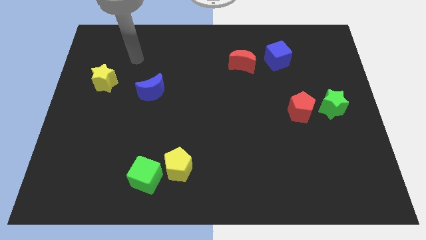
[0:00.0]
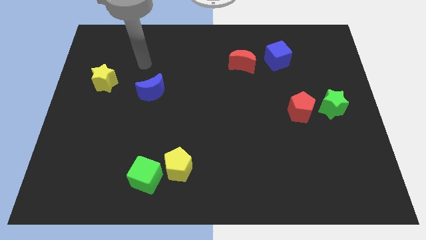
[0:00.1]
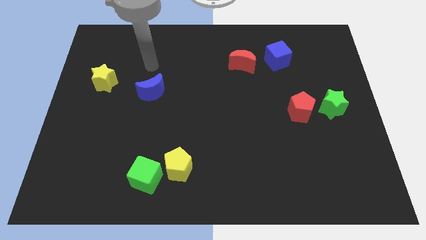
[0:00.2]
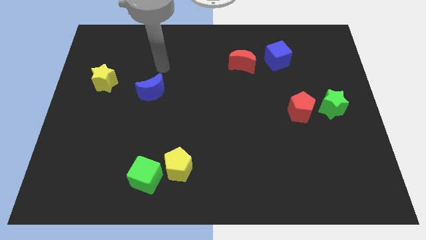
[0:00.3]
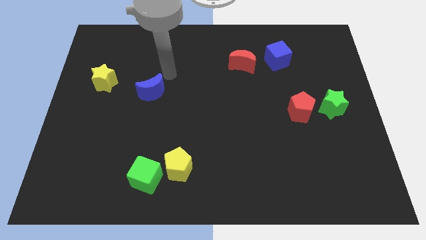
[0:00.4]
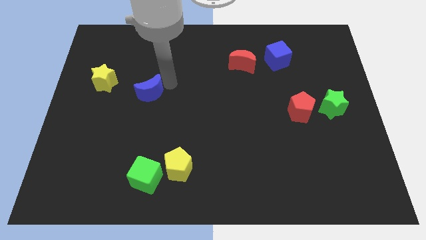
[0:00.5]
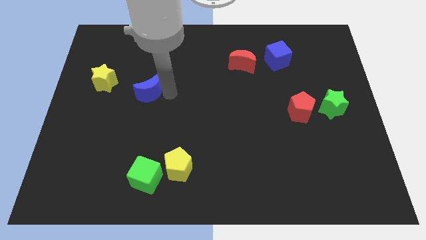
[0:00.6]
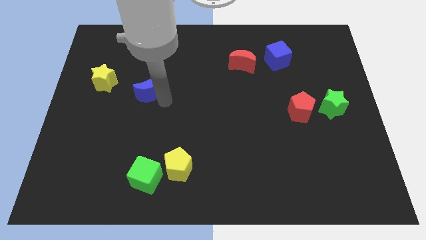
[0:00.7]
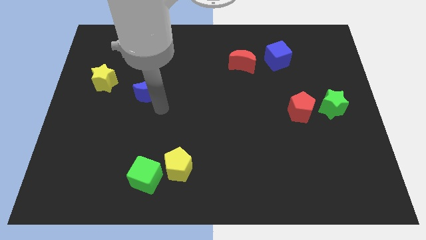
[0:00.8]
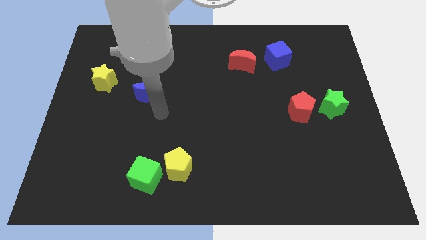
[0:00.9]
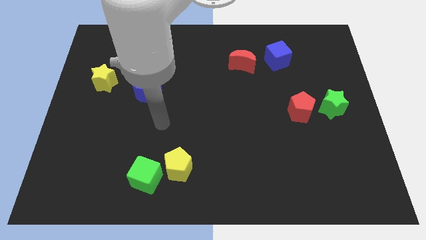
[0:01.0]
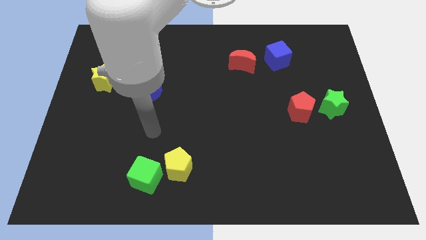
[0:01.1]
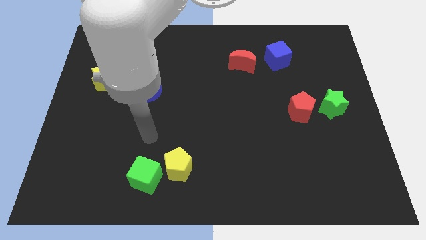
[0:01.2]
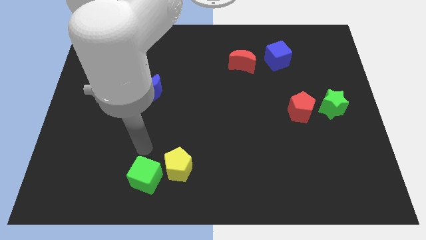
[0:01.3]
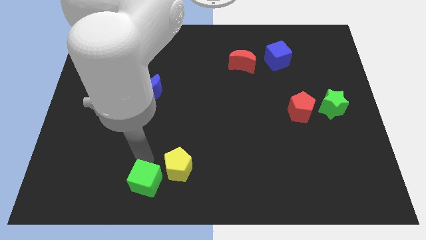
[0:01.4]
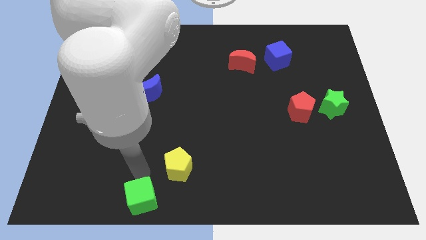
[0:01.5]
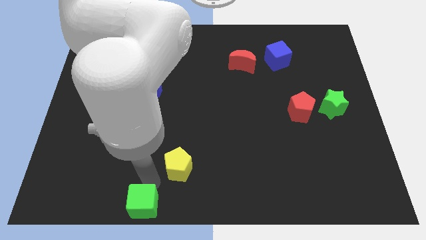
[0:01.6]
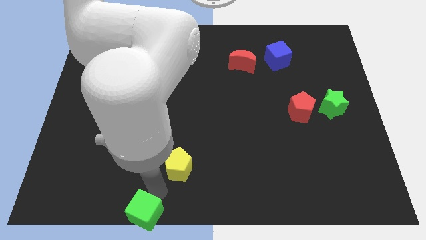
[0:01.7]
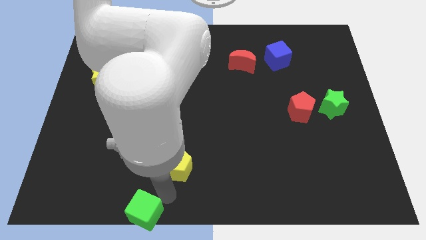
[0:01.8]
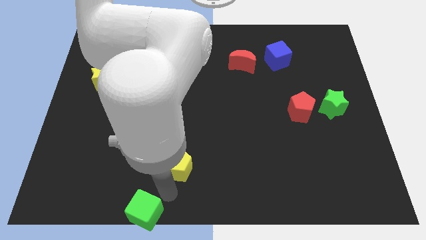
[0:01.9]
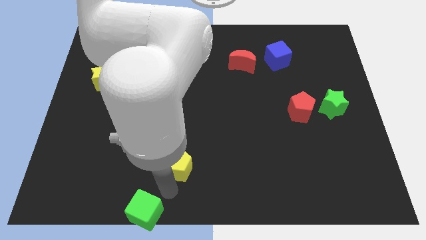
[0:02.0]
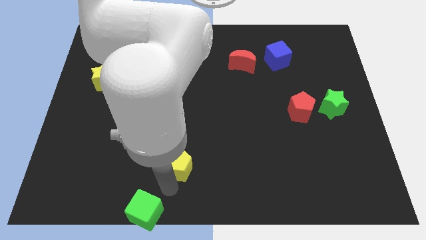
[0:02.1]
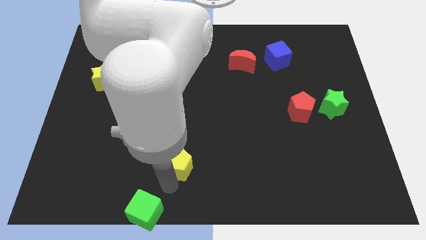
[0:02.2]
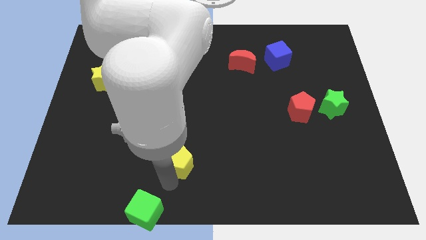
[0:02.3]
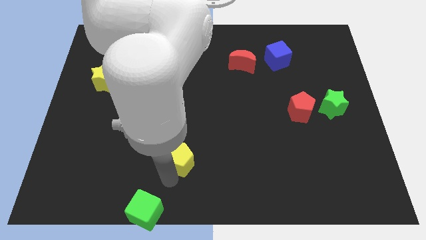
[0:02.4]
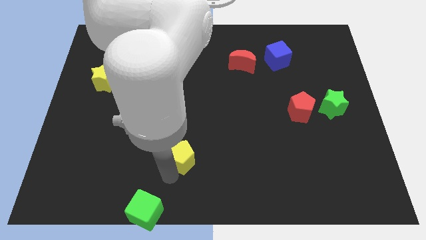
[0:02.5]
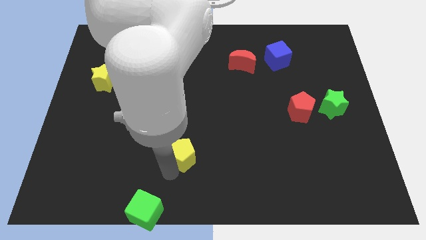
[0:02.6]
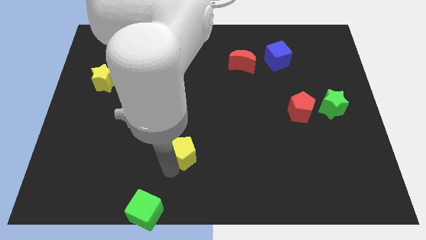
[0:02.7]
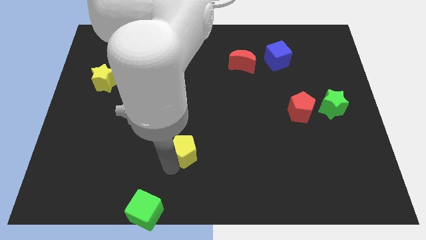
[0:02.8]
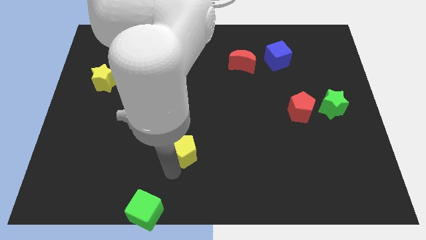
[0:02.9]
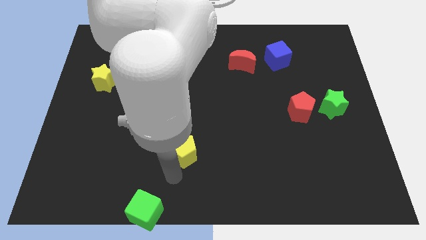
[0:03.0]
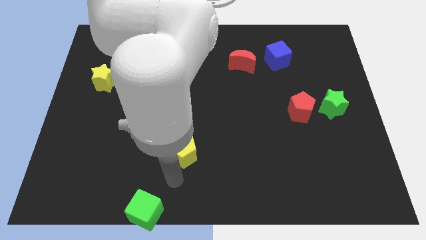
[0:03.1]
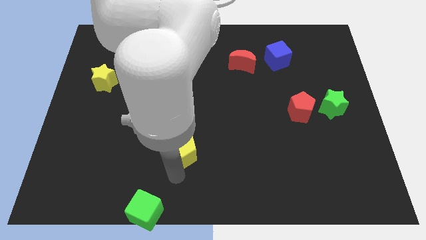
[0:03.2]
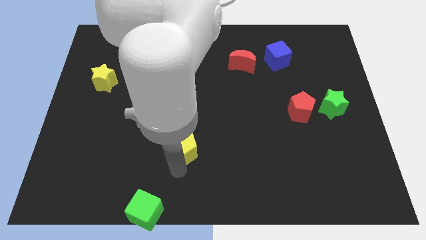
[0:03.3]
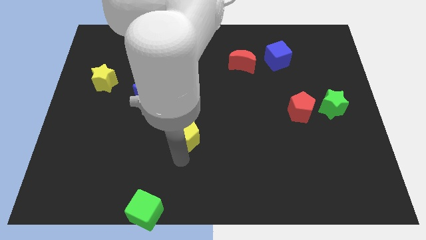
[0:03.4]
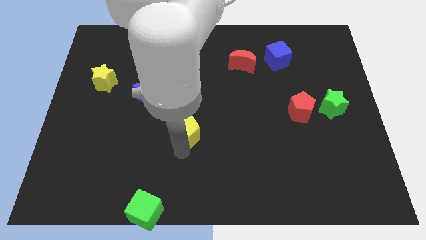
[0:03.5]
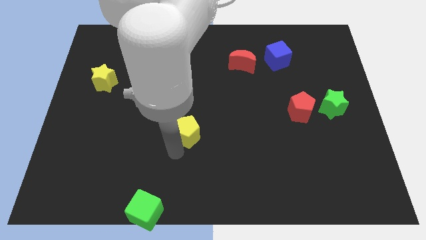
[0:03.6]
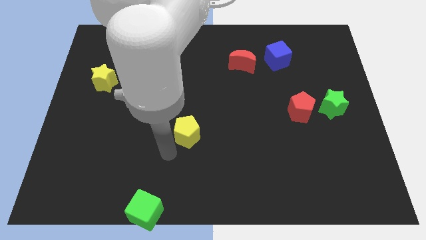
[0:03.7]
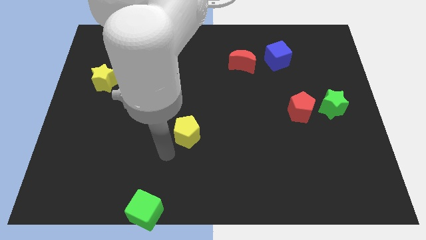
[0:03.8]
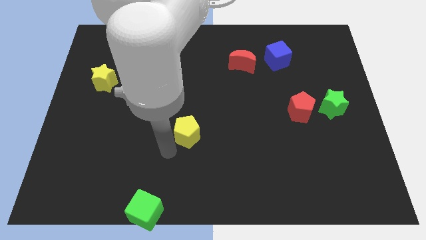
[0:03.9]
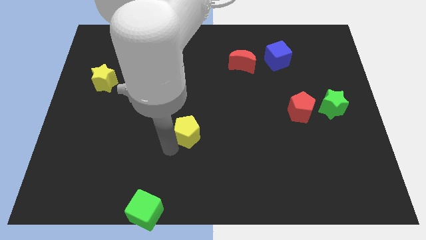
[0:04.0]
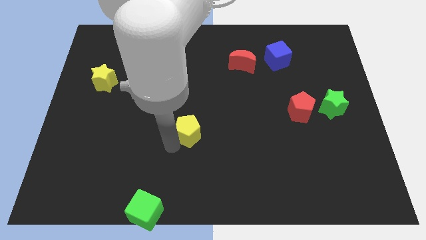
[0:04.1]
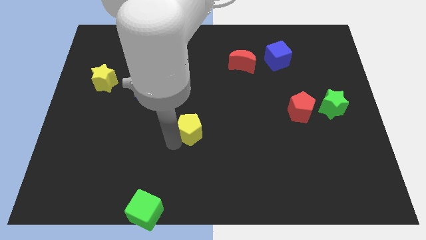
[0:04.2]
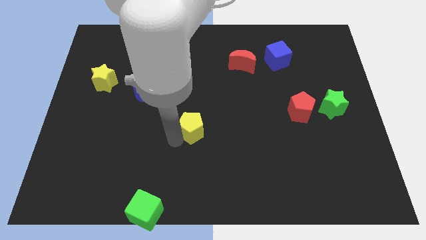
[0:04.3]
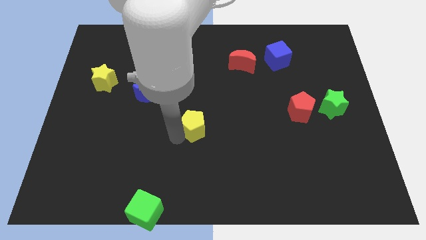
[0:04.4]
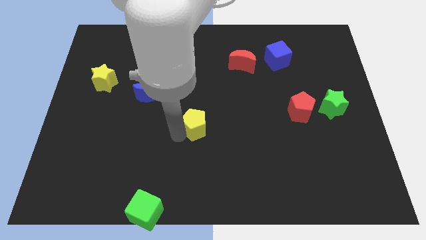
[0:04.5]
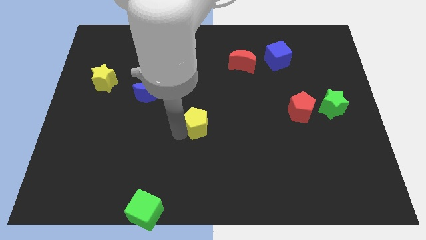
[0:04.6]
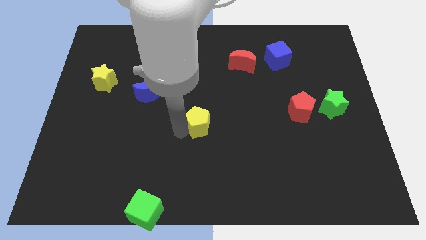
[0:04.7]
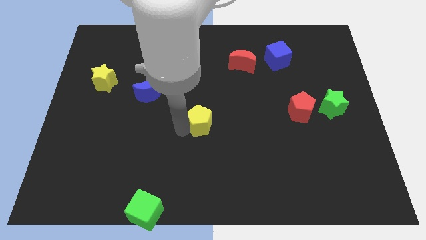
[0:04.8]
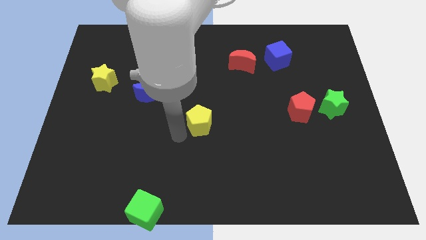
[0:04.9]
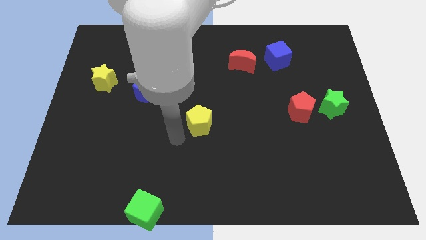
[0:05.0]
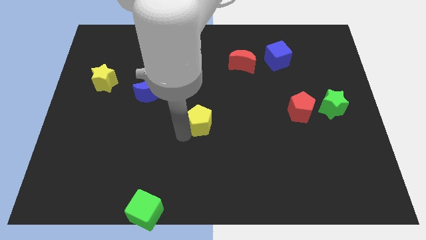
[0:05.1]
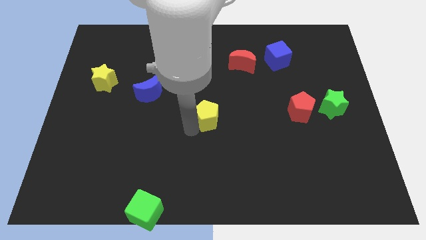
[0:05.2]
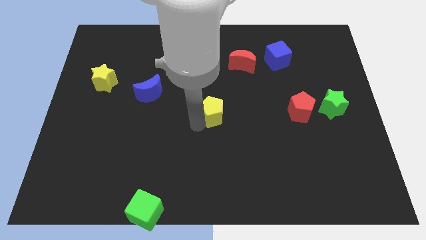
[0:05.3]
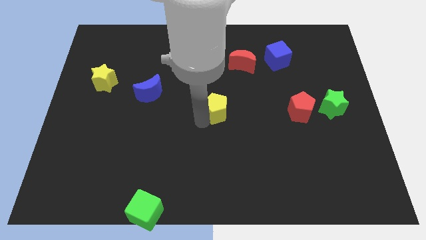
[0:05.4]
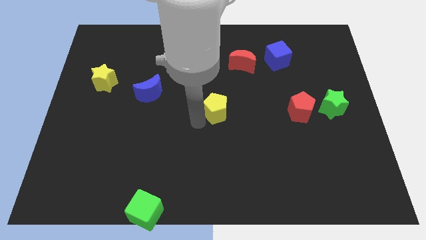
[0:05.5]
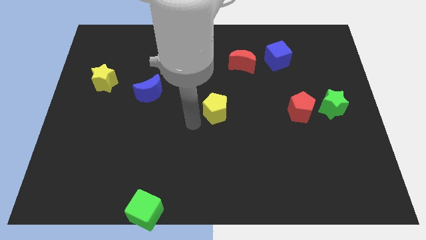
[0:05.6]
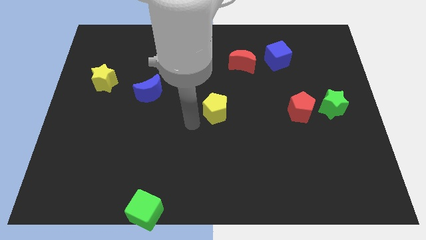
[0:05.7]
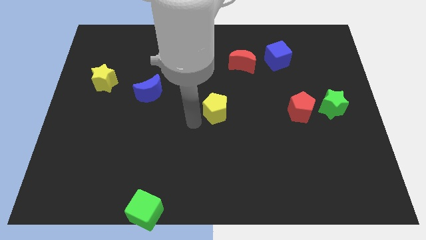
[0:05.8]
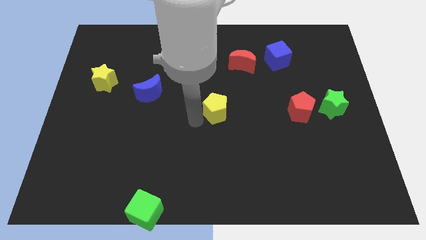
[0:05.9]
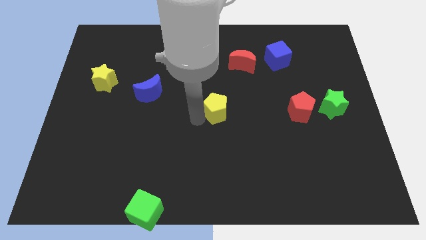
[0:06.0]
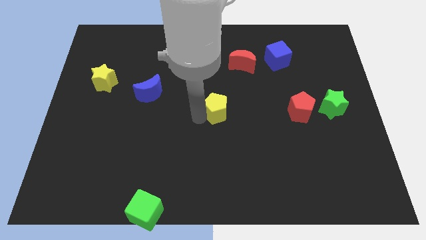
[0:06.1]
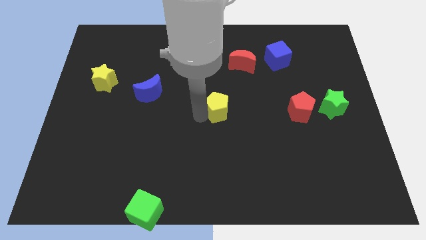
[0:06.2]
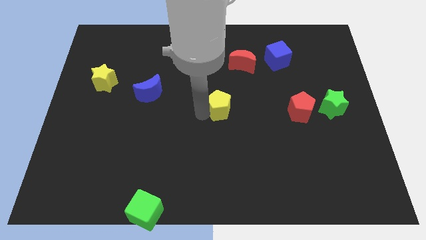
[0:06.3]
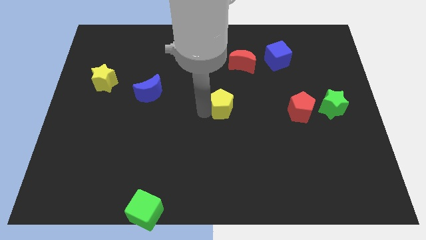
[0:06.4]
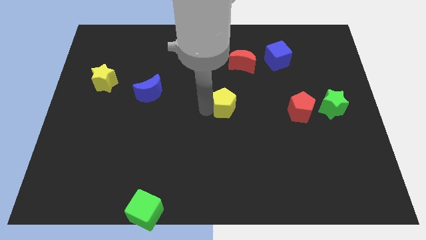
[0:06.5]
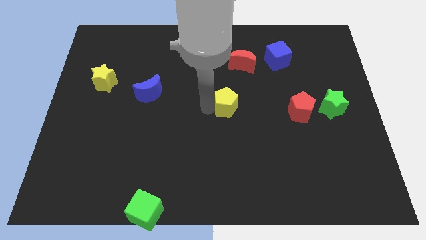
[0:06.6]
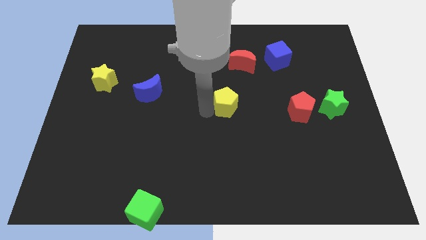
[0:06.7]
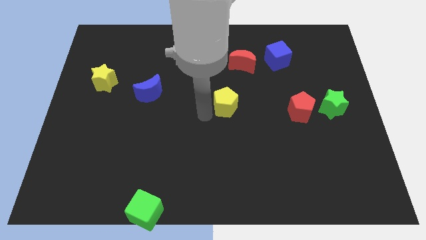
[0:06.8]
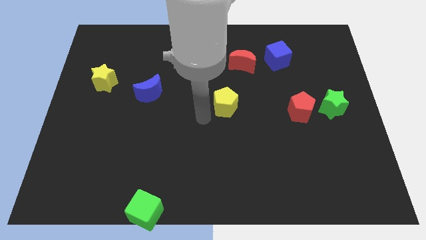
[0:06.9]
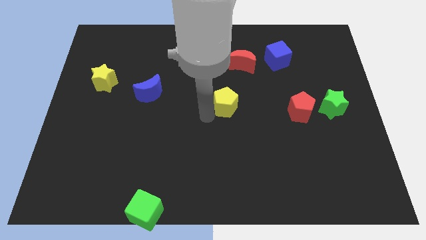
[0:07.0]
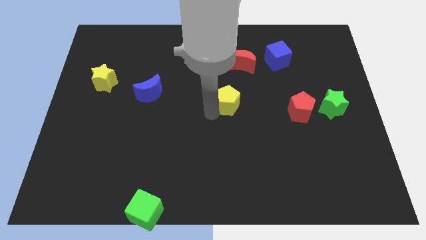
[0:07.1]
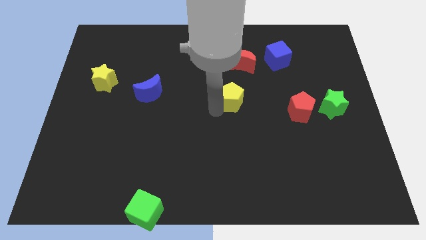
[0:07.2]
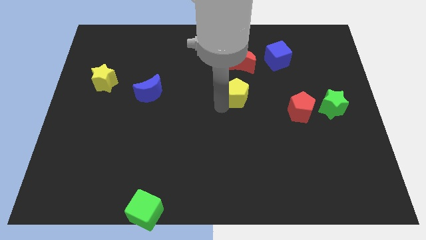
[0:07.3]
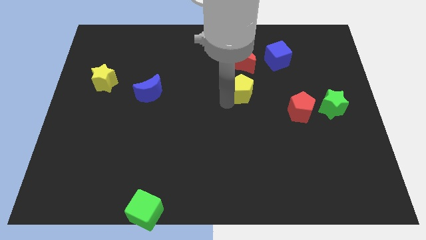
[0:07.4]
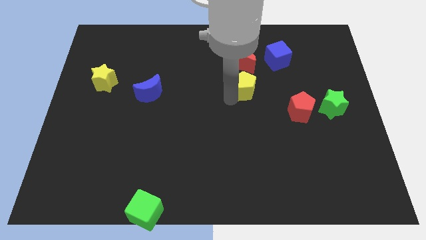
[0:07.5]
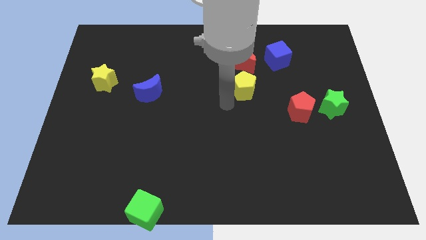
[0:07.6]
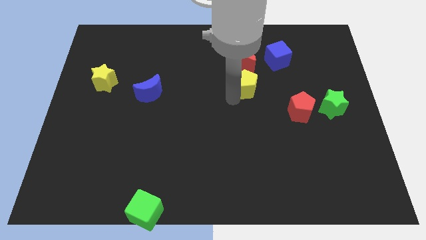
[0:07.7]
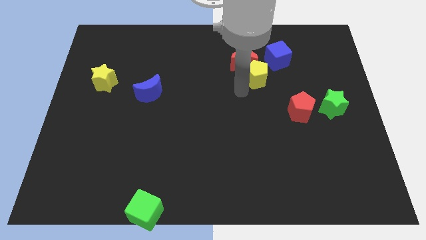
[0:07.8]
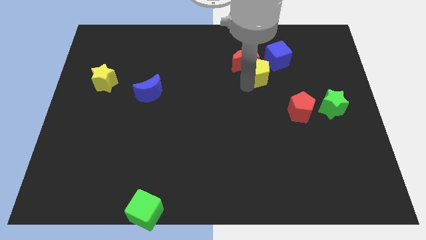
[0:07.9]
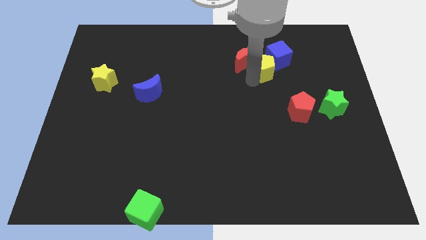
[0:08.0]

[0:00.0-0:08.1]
slide the yellow pentagon close to the blue cube
